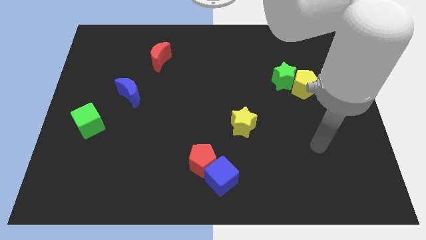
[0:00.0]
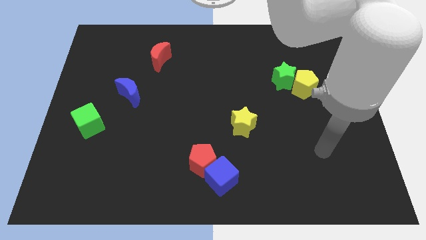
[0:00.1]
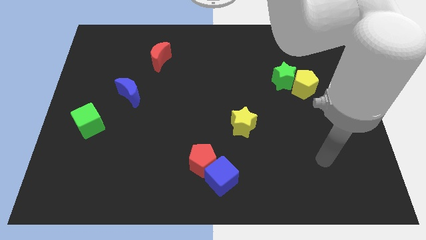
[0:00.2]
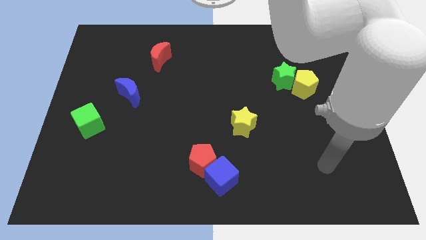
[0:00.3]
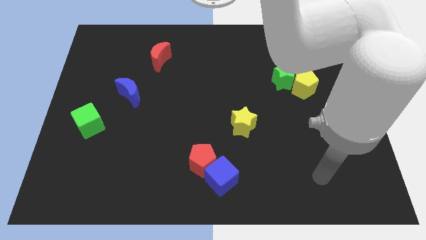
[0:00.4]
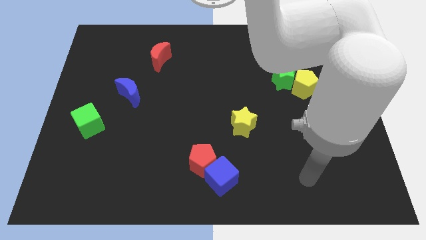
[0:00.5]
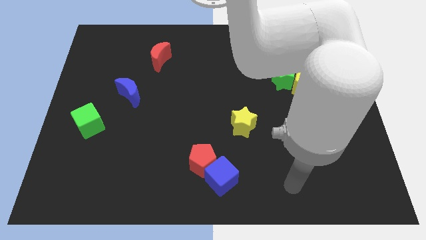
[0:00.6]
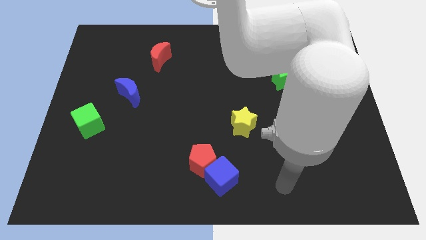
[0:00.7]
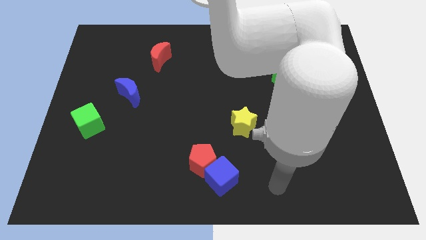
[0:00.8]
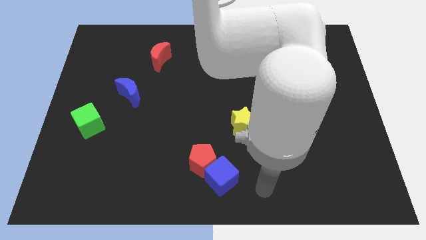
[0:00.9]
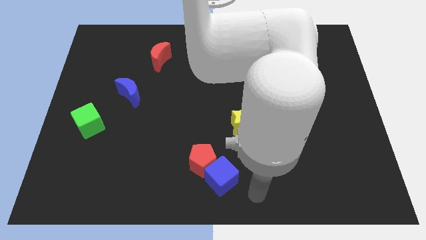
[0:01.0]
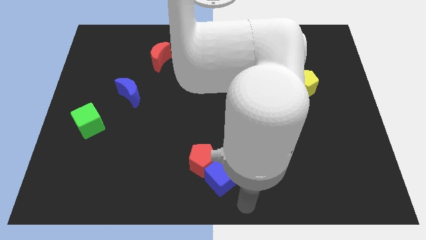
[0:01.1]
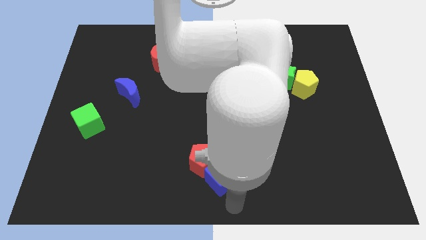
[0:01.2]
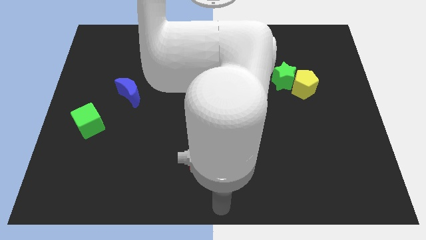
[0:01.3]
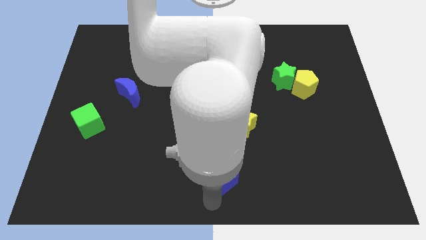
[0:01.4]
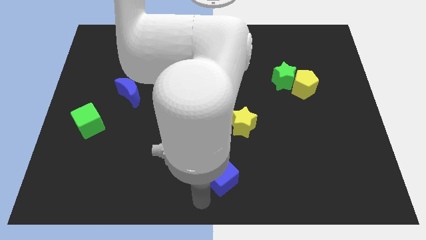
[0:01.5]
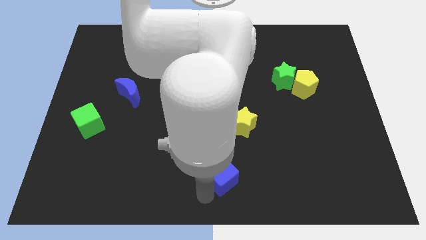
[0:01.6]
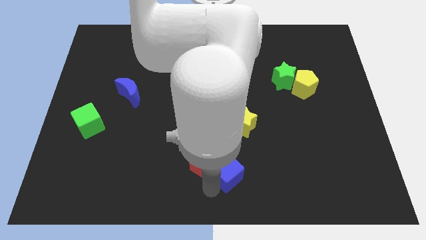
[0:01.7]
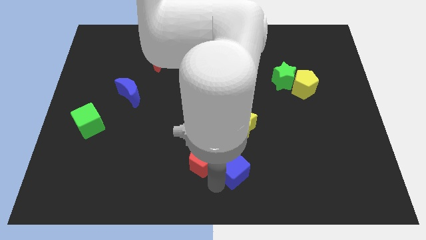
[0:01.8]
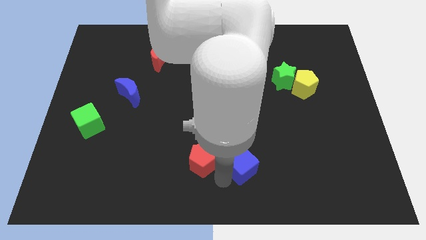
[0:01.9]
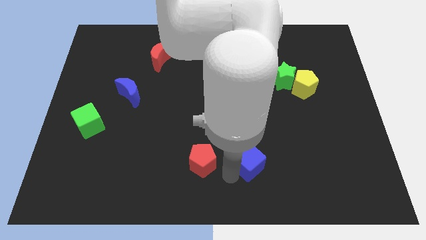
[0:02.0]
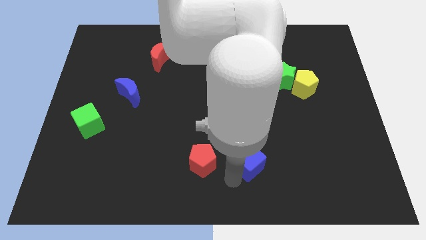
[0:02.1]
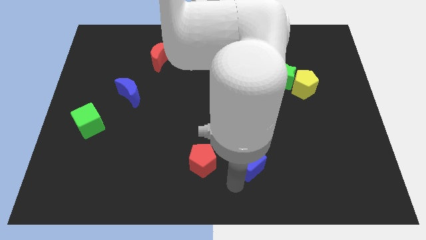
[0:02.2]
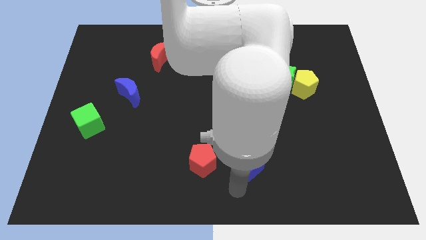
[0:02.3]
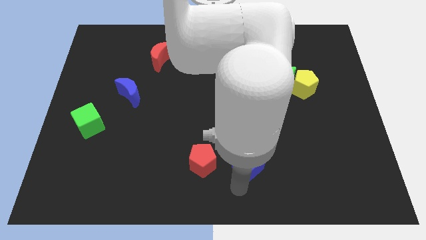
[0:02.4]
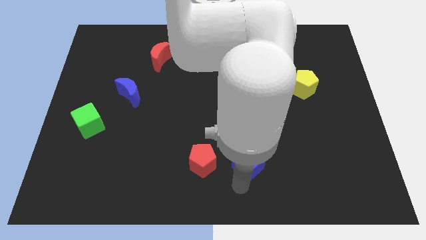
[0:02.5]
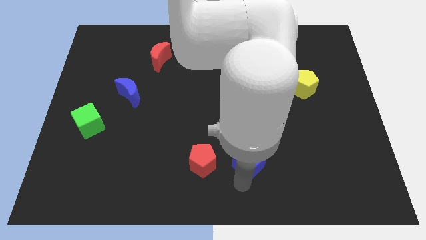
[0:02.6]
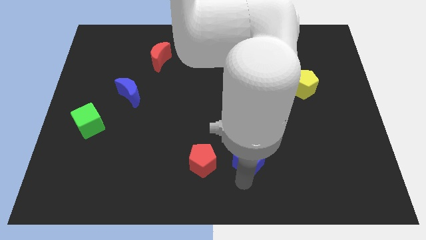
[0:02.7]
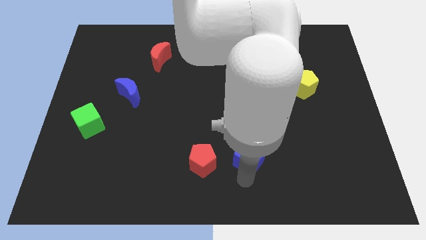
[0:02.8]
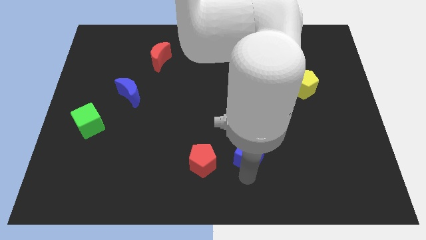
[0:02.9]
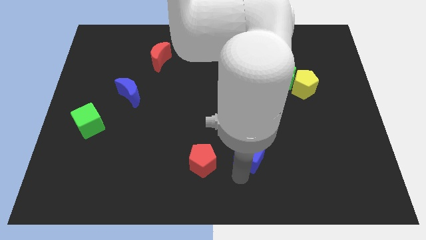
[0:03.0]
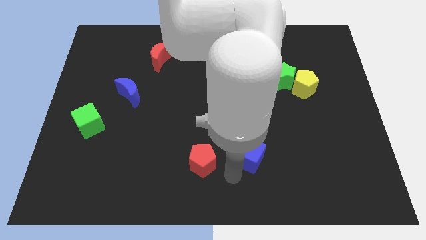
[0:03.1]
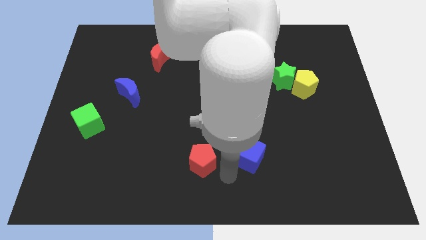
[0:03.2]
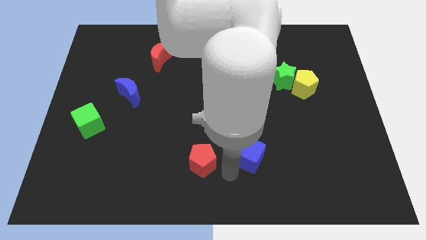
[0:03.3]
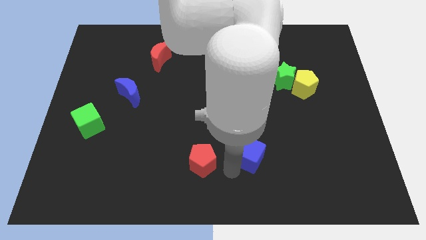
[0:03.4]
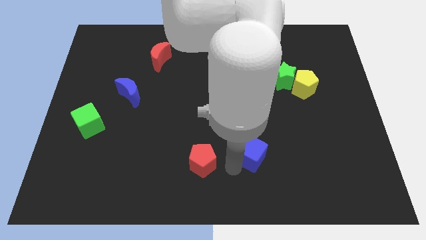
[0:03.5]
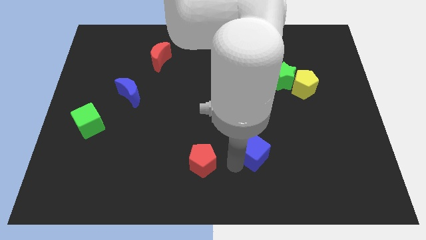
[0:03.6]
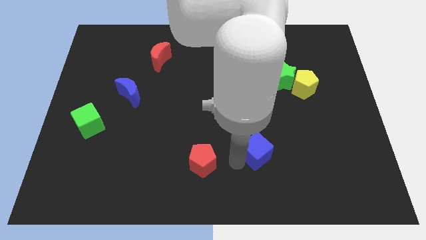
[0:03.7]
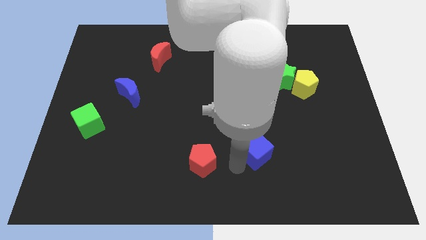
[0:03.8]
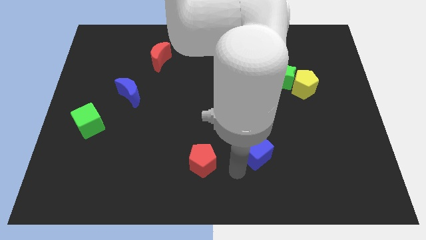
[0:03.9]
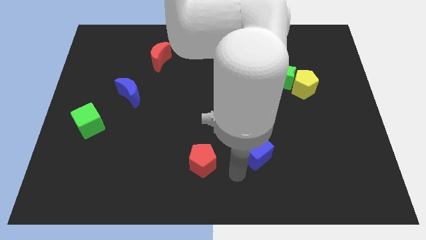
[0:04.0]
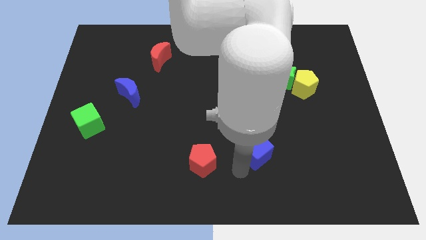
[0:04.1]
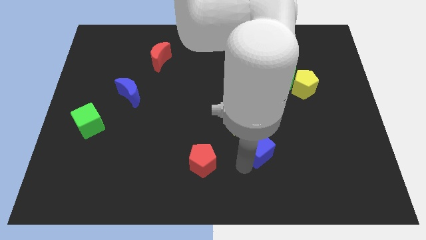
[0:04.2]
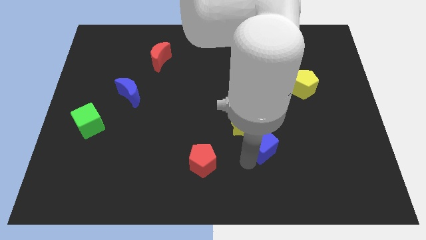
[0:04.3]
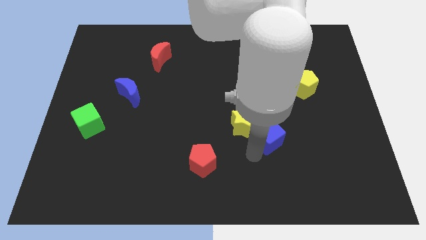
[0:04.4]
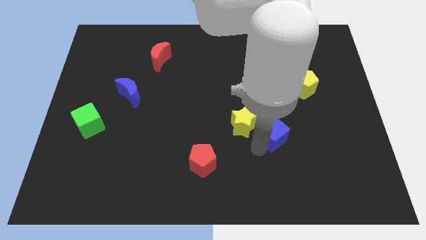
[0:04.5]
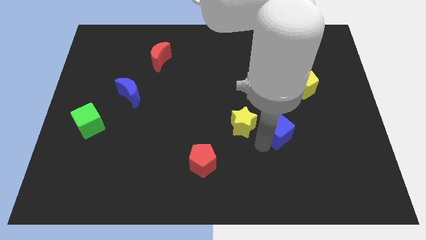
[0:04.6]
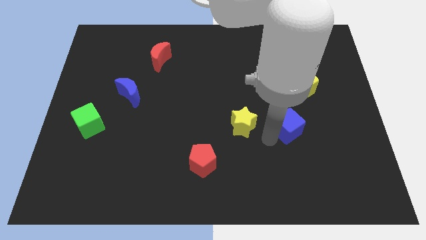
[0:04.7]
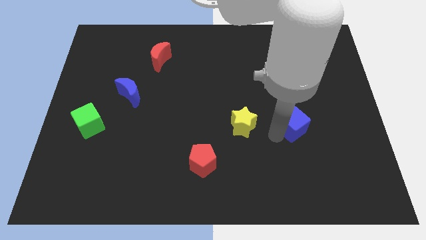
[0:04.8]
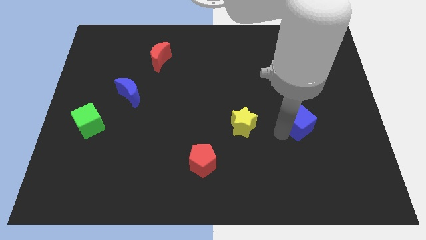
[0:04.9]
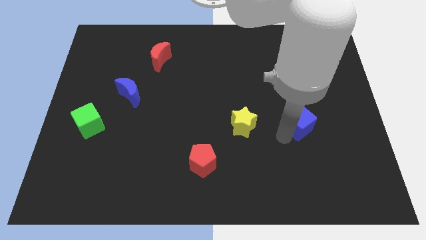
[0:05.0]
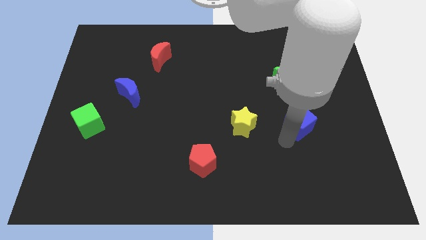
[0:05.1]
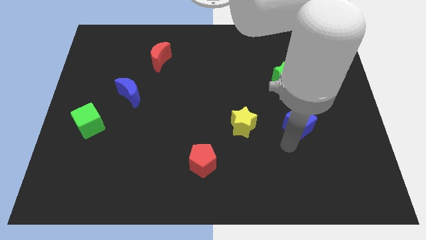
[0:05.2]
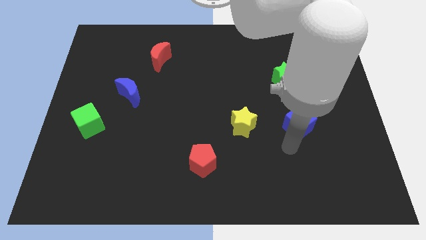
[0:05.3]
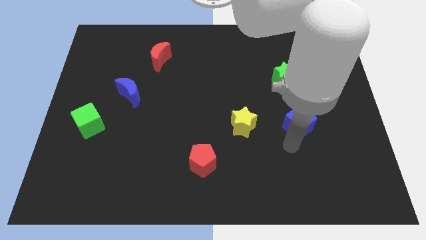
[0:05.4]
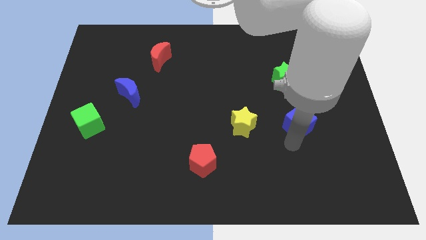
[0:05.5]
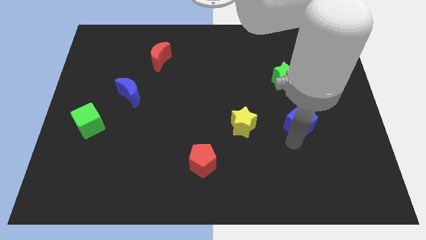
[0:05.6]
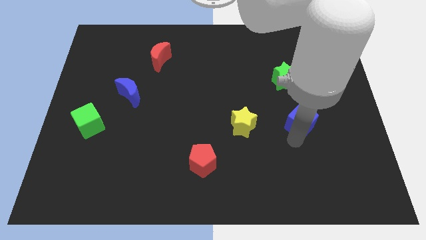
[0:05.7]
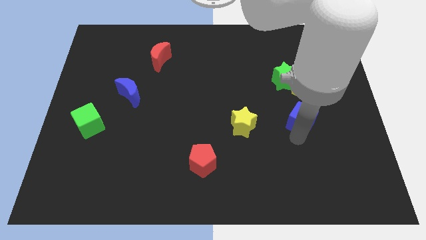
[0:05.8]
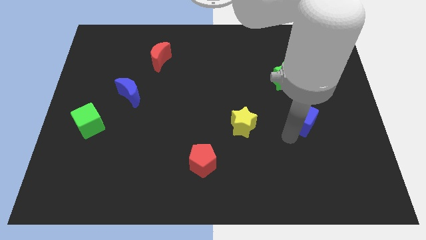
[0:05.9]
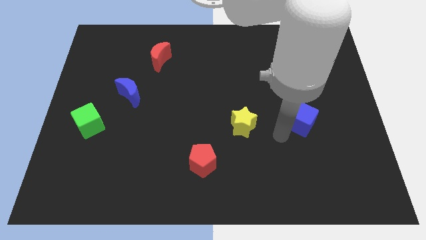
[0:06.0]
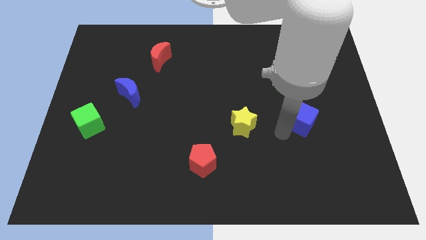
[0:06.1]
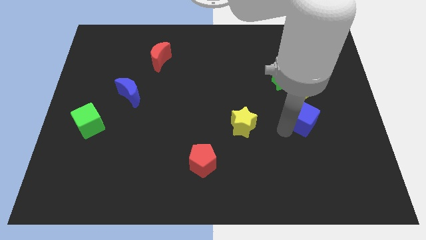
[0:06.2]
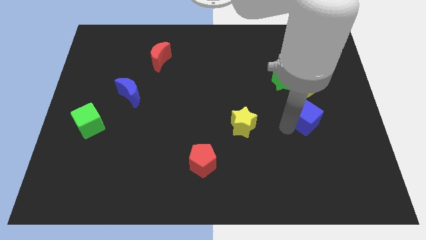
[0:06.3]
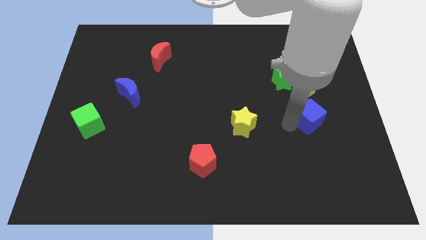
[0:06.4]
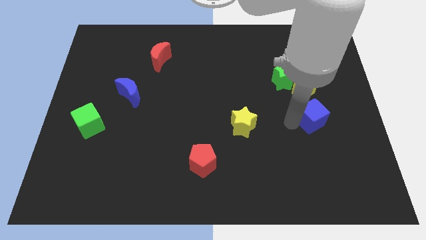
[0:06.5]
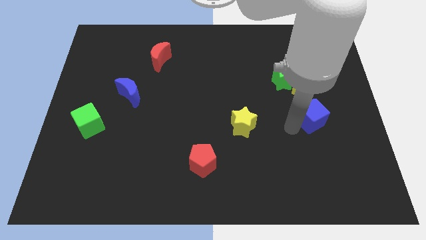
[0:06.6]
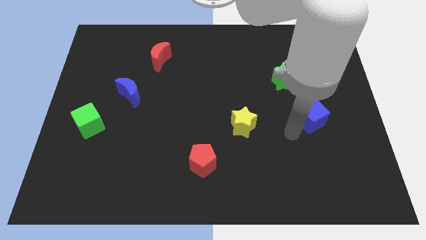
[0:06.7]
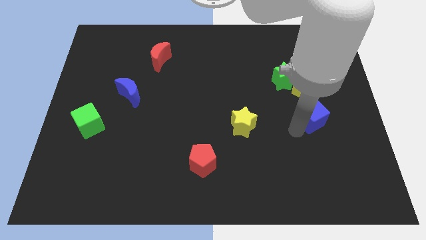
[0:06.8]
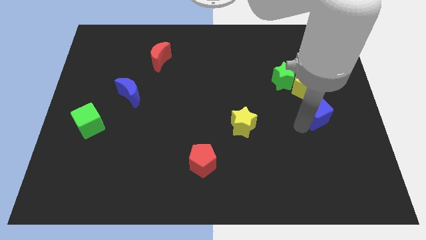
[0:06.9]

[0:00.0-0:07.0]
slide the blue cube to the bottom right side of the yellow pentagon
